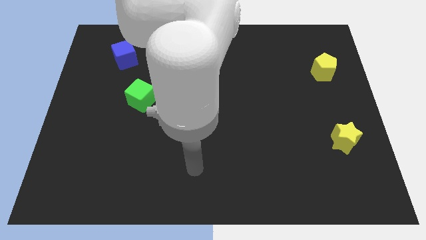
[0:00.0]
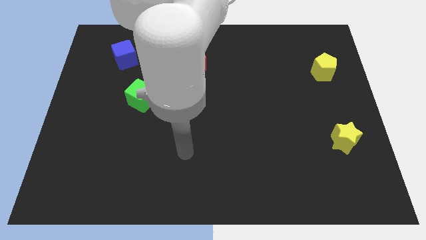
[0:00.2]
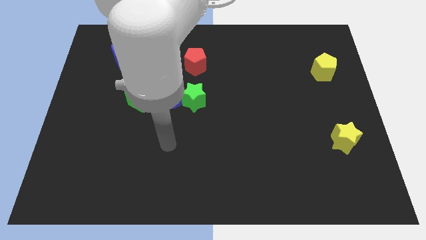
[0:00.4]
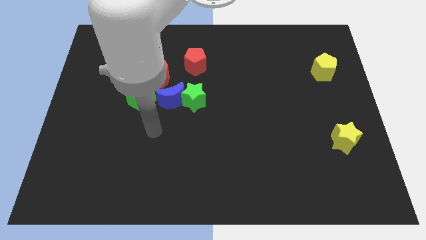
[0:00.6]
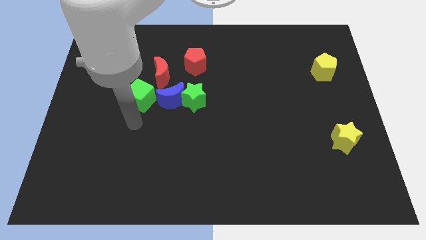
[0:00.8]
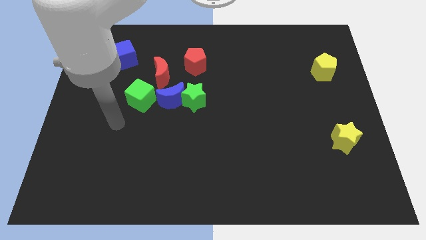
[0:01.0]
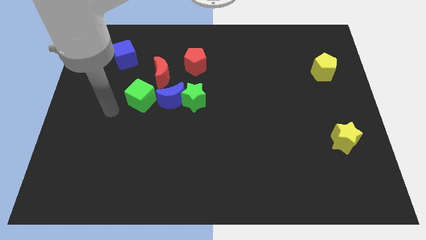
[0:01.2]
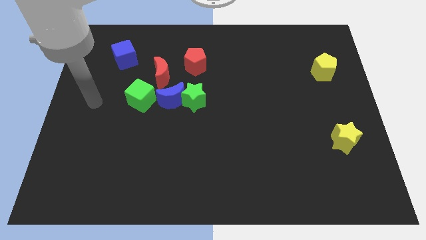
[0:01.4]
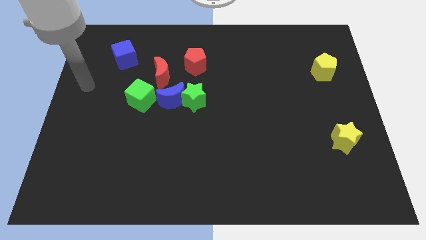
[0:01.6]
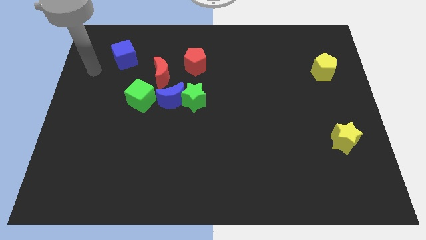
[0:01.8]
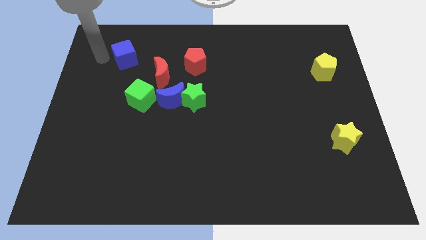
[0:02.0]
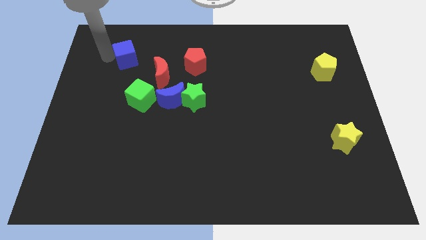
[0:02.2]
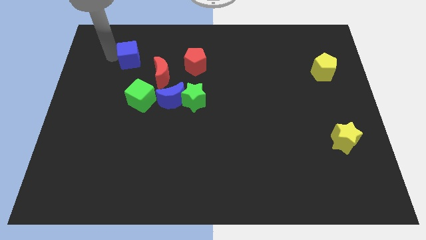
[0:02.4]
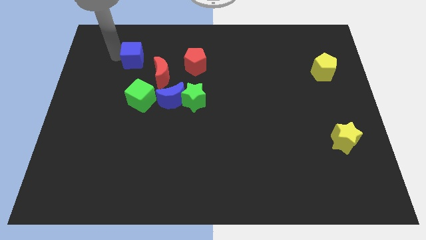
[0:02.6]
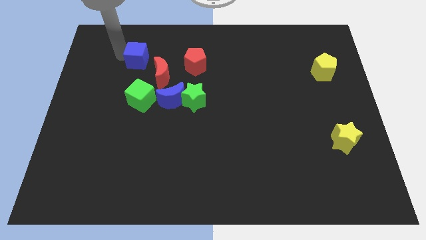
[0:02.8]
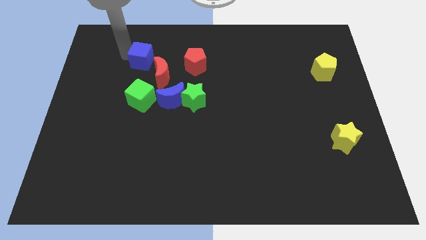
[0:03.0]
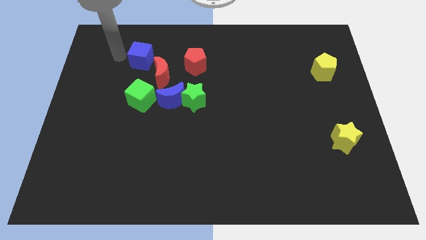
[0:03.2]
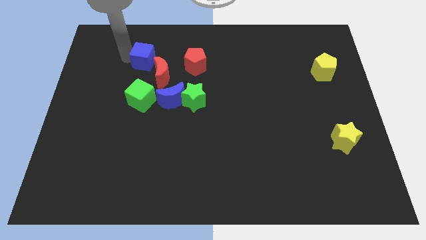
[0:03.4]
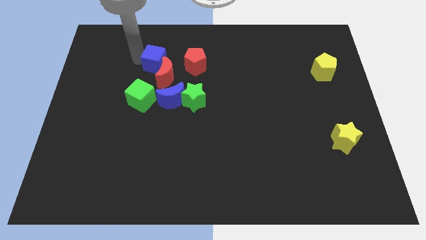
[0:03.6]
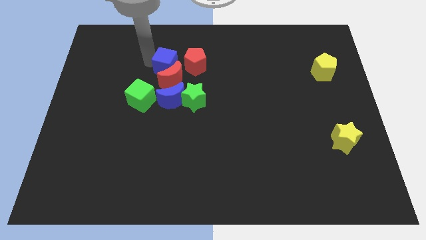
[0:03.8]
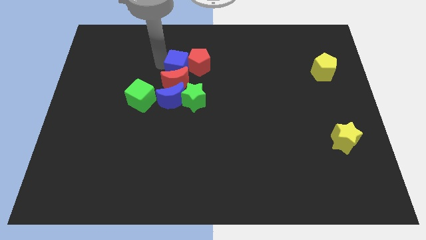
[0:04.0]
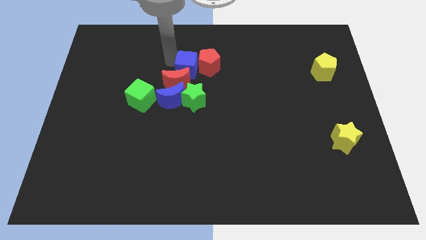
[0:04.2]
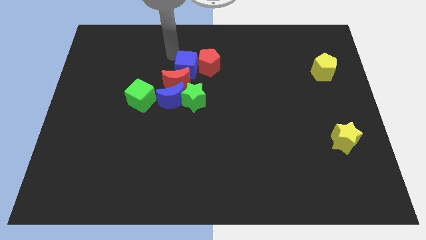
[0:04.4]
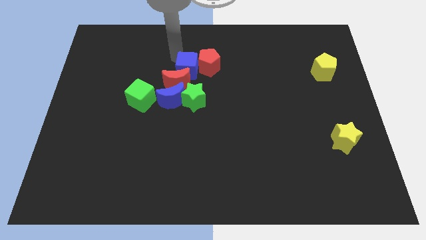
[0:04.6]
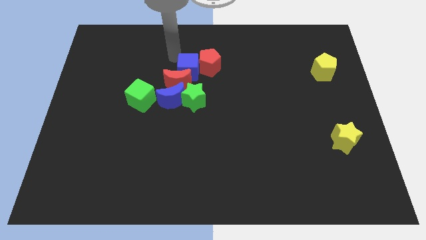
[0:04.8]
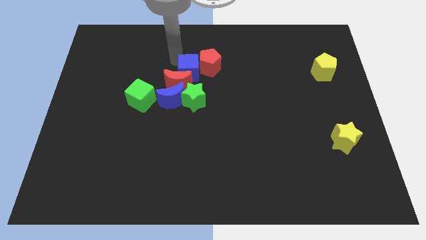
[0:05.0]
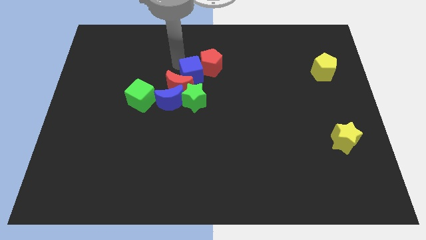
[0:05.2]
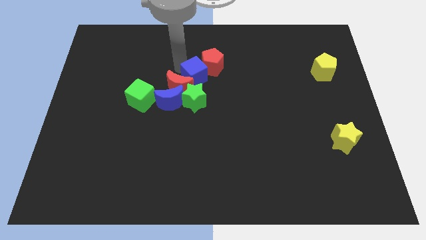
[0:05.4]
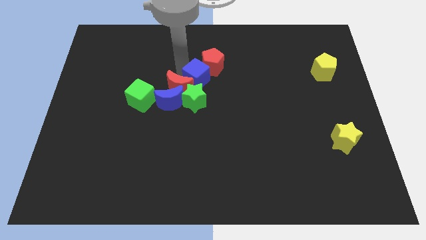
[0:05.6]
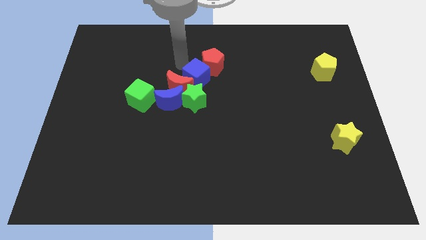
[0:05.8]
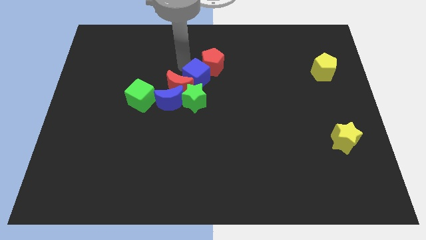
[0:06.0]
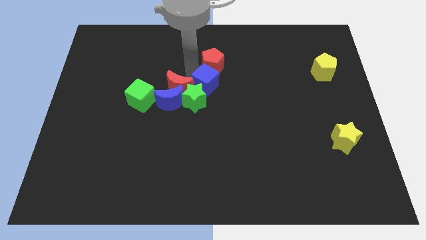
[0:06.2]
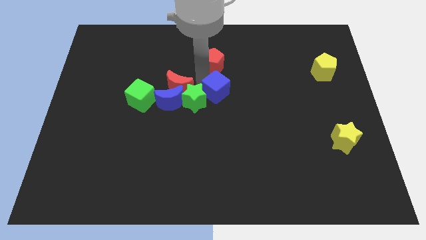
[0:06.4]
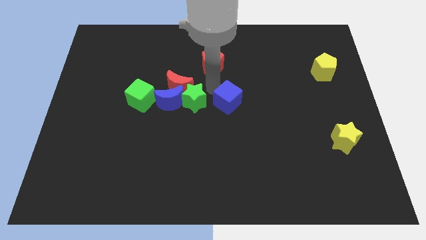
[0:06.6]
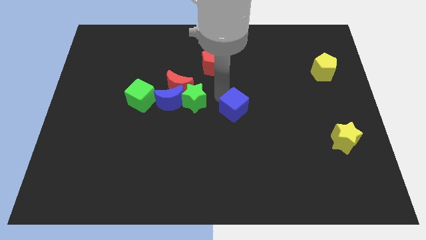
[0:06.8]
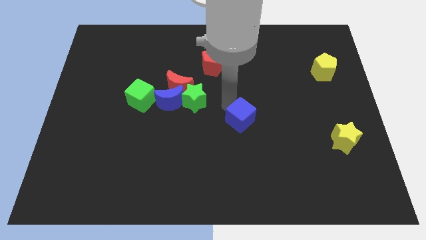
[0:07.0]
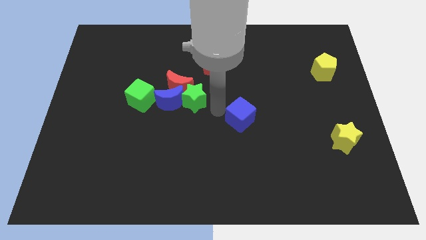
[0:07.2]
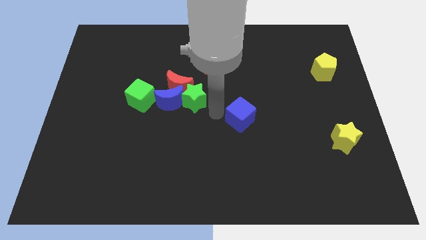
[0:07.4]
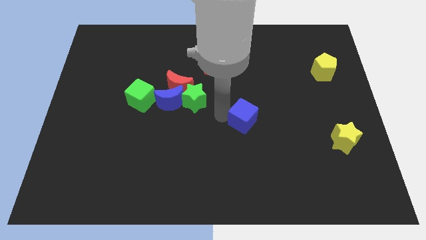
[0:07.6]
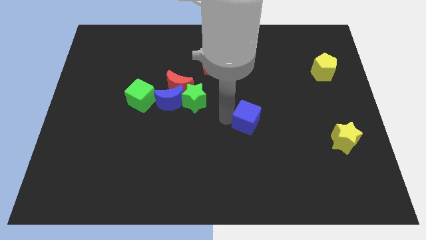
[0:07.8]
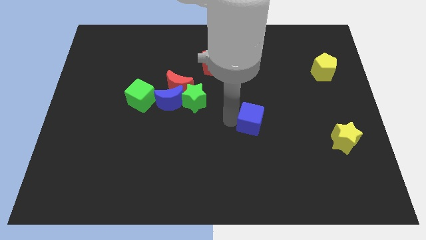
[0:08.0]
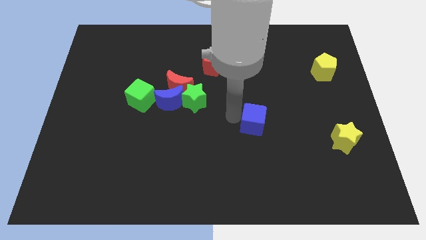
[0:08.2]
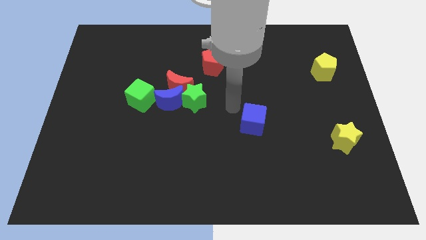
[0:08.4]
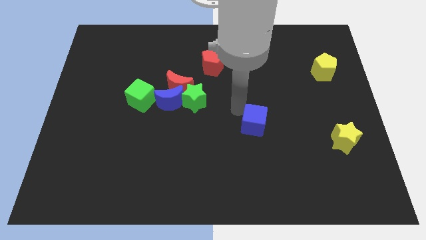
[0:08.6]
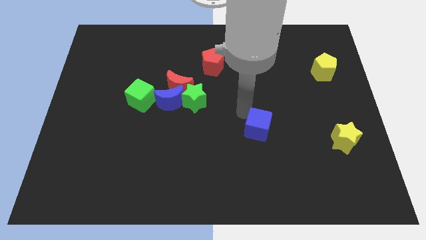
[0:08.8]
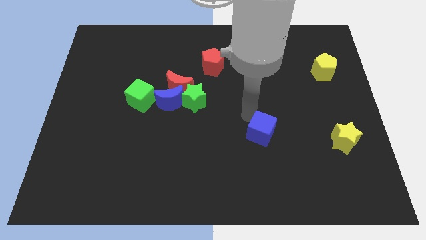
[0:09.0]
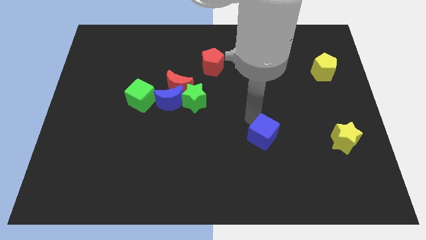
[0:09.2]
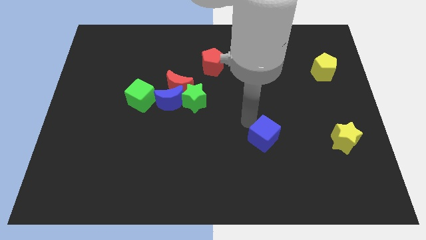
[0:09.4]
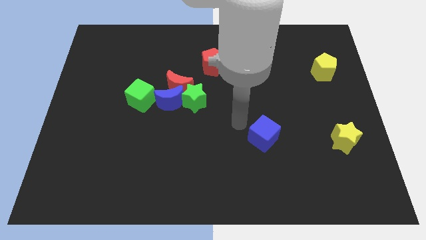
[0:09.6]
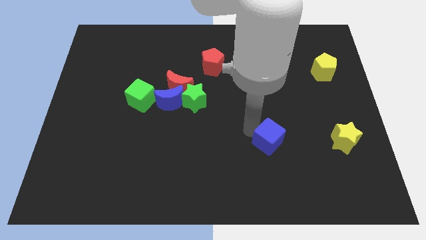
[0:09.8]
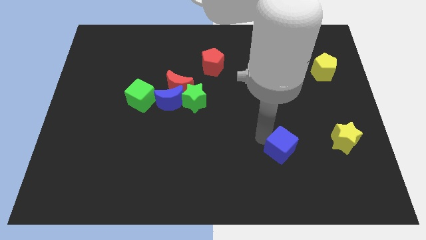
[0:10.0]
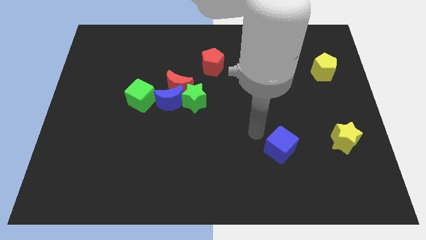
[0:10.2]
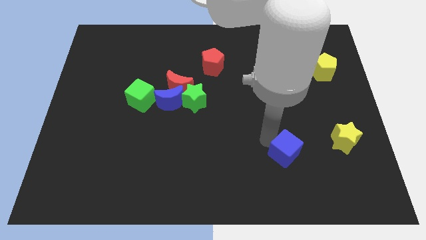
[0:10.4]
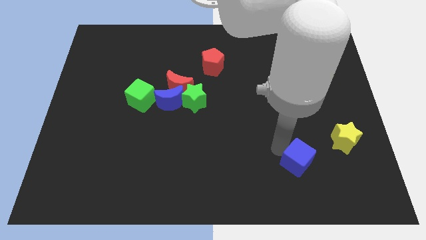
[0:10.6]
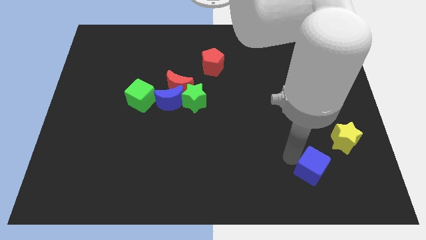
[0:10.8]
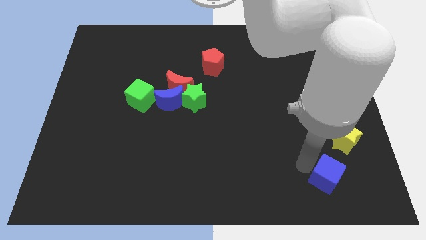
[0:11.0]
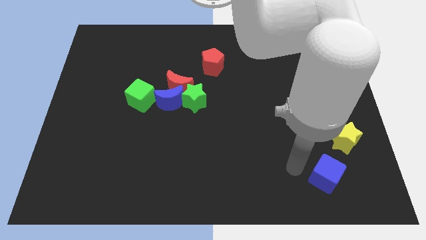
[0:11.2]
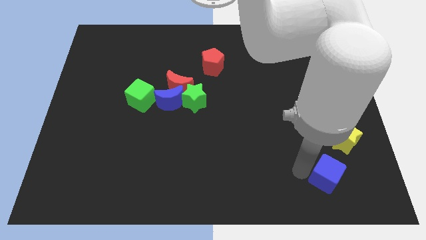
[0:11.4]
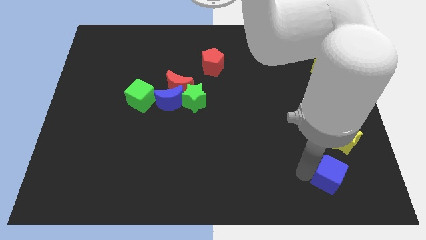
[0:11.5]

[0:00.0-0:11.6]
slide the blue cube to the bottom side of the yellow star

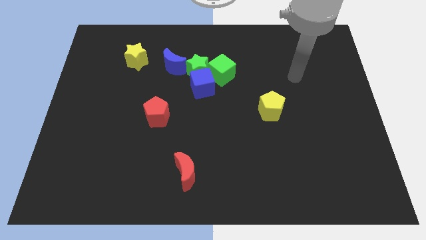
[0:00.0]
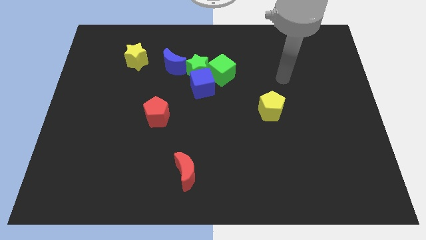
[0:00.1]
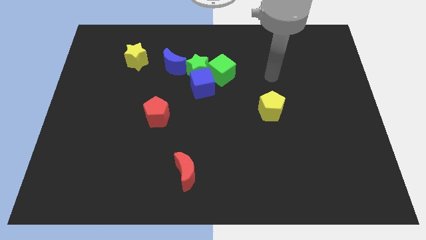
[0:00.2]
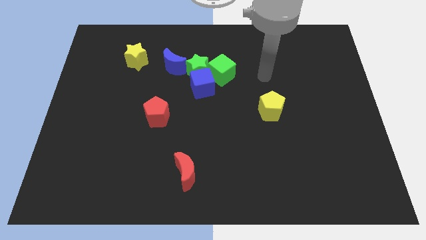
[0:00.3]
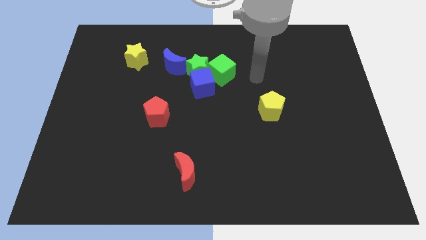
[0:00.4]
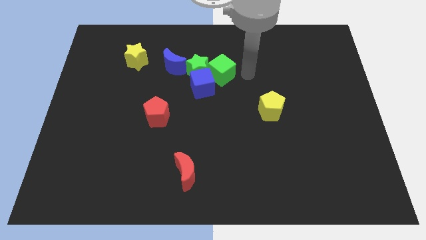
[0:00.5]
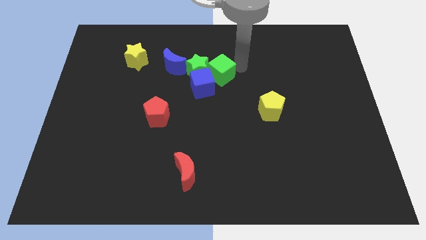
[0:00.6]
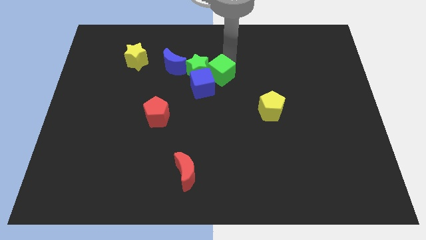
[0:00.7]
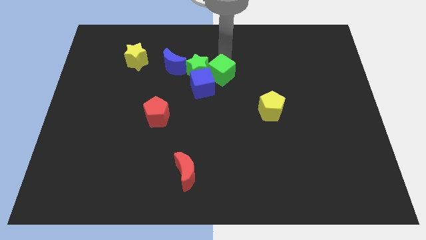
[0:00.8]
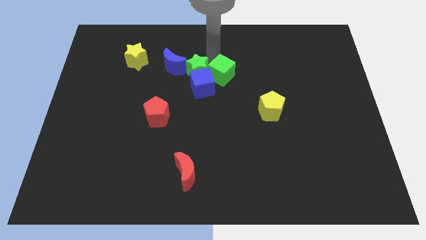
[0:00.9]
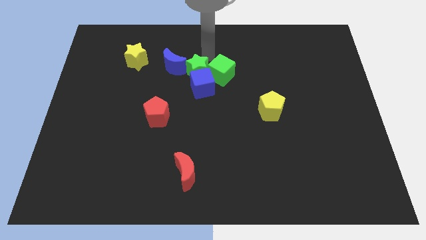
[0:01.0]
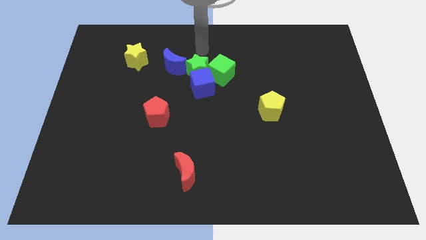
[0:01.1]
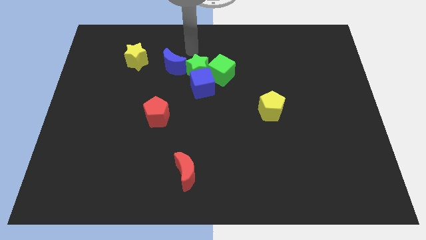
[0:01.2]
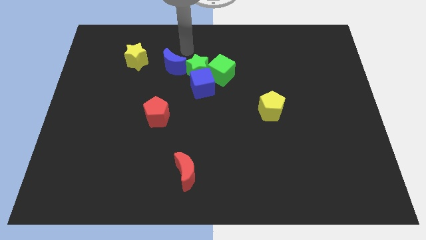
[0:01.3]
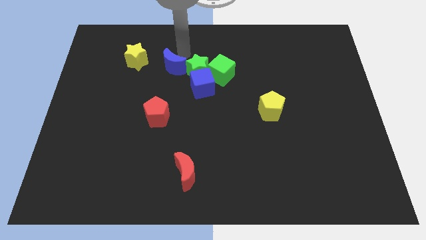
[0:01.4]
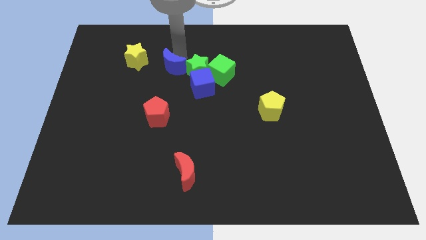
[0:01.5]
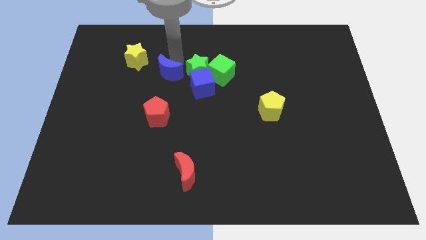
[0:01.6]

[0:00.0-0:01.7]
move the blue moon to the top side of the red pentagon
